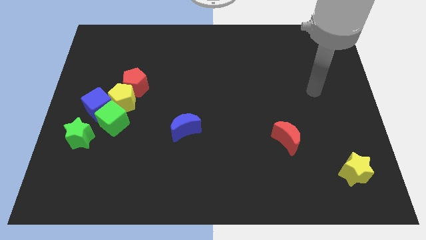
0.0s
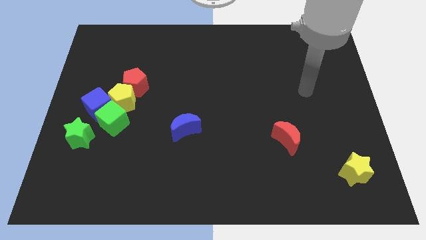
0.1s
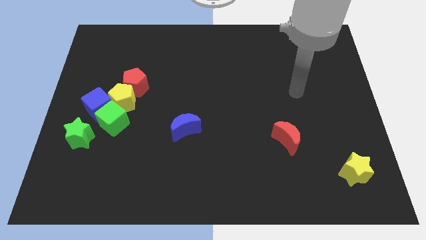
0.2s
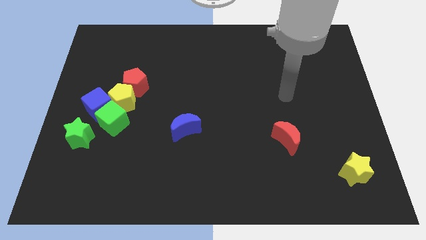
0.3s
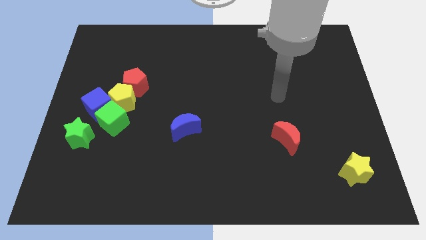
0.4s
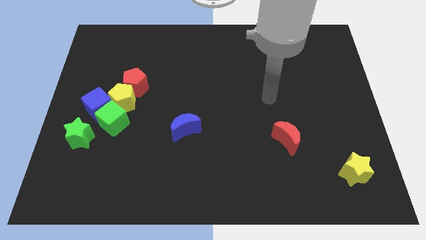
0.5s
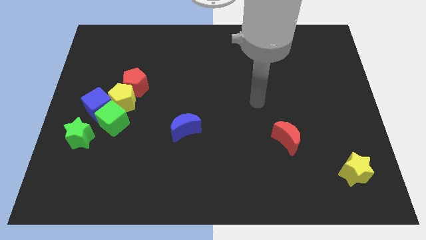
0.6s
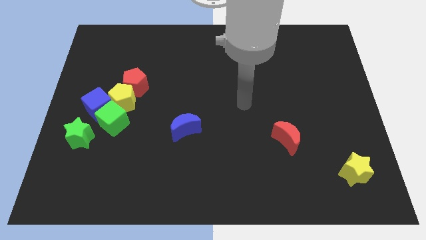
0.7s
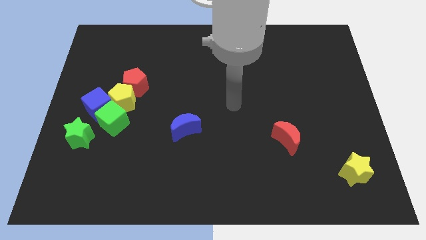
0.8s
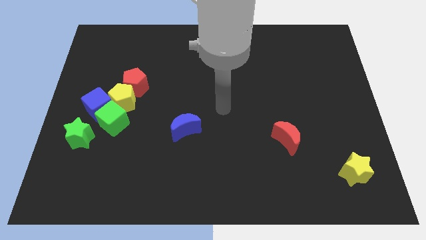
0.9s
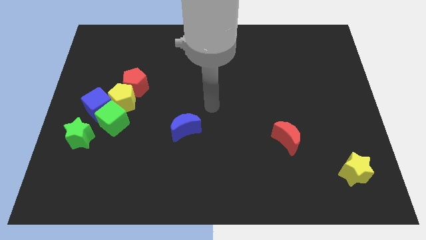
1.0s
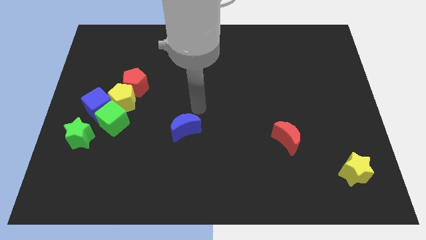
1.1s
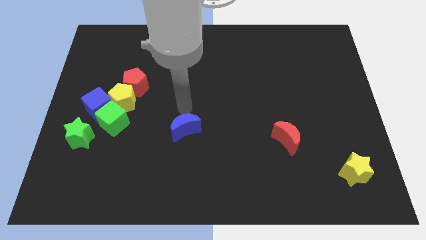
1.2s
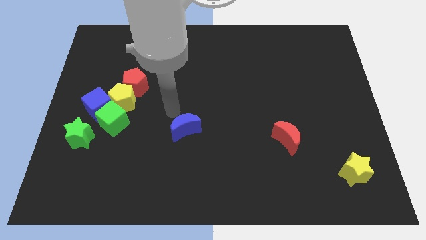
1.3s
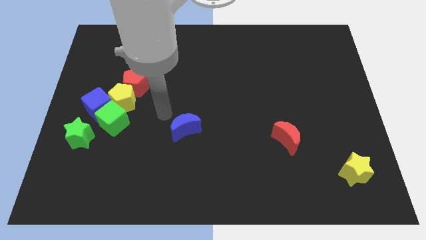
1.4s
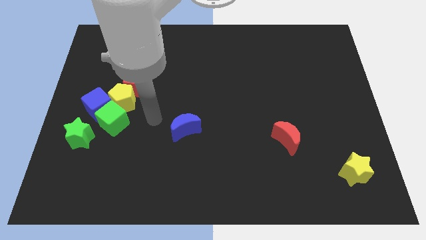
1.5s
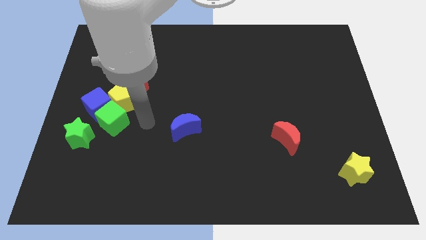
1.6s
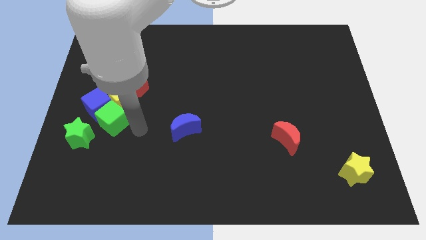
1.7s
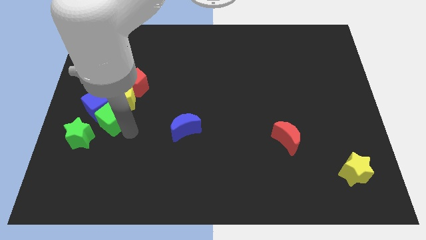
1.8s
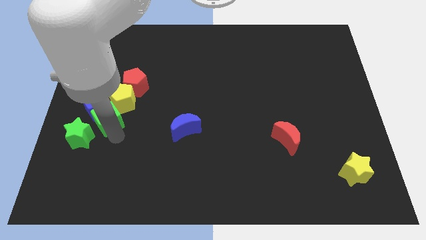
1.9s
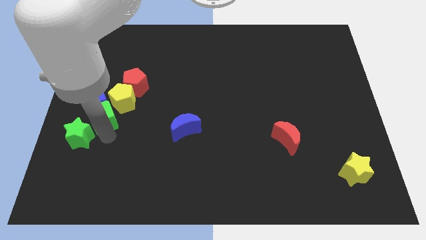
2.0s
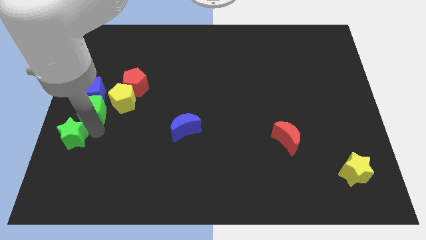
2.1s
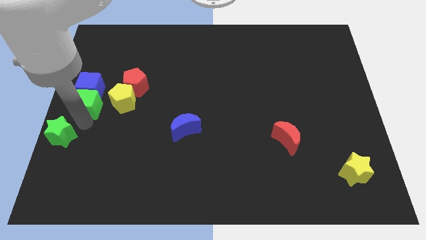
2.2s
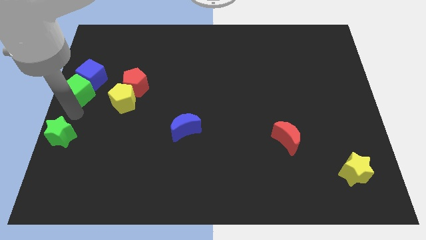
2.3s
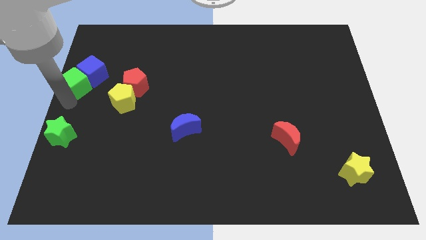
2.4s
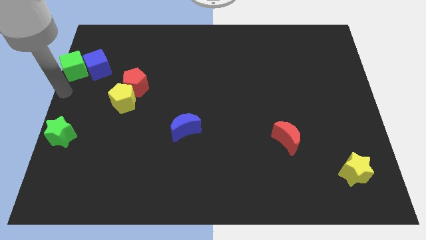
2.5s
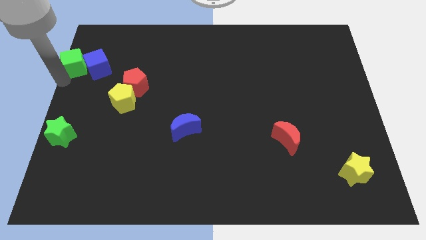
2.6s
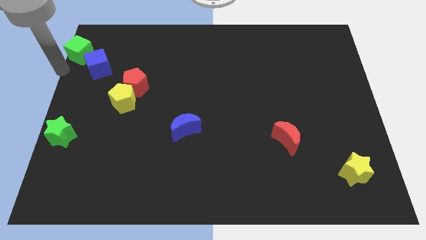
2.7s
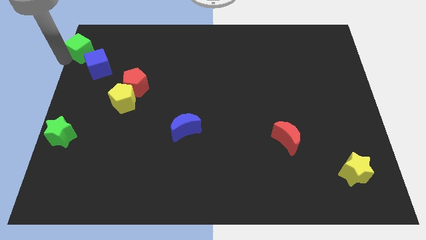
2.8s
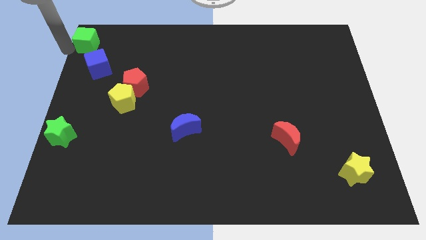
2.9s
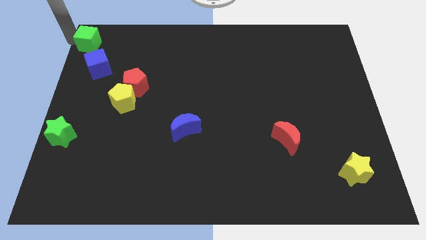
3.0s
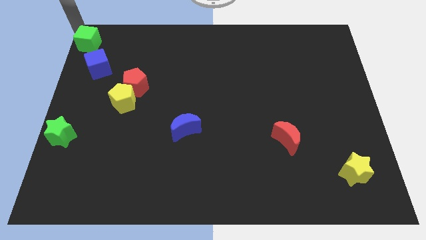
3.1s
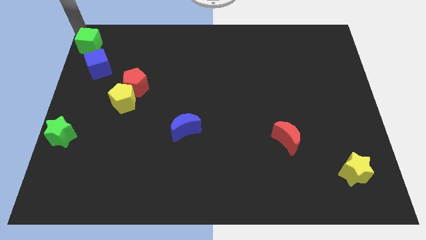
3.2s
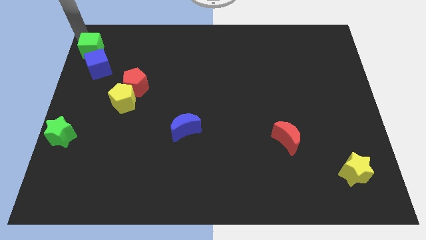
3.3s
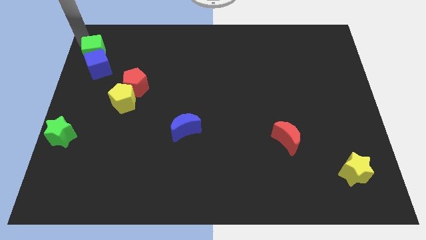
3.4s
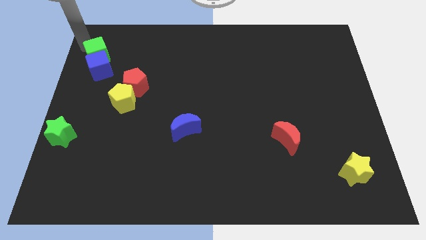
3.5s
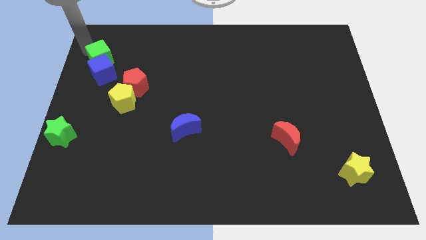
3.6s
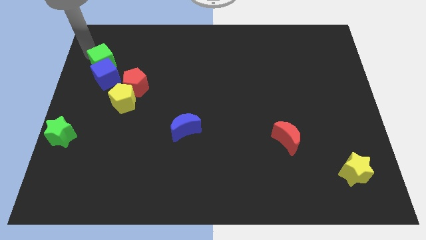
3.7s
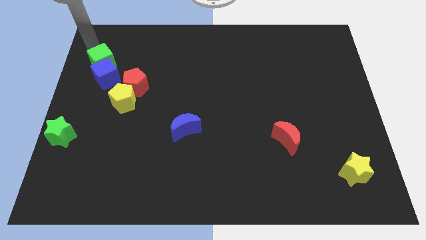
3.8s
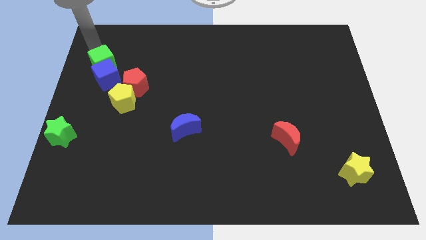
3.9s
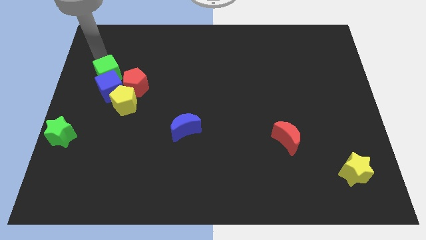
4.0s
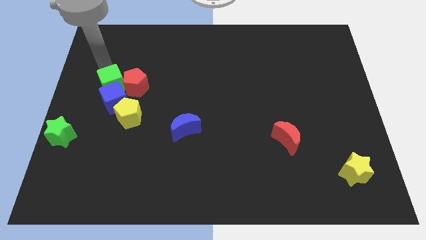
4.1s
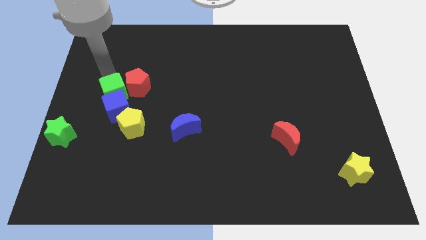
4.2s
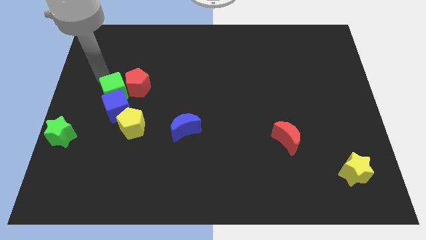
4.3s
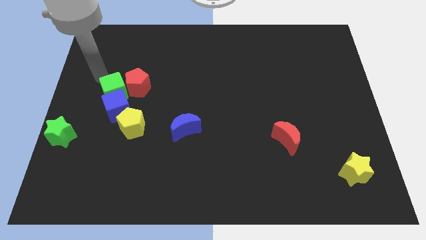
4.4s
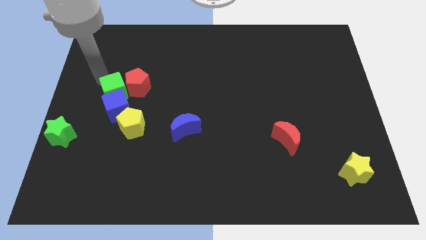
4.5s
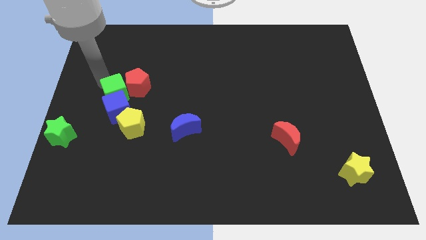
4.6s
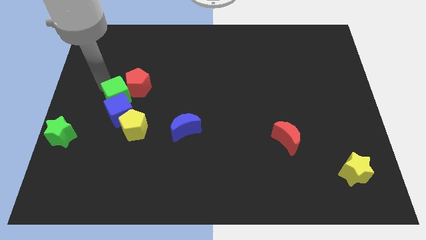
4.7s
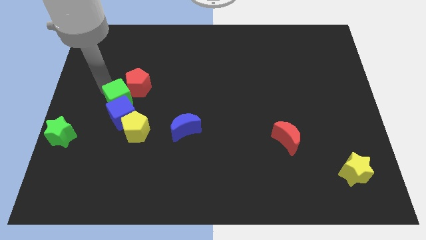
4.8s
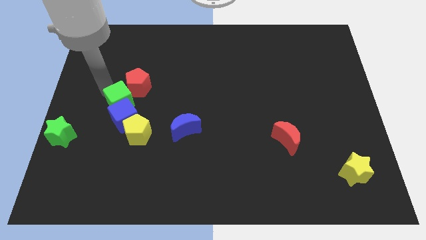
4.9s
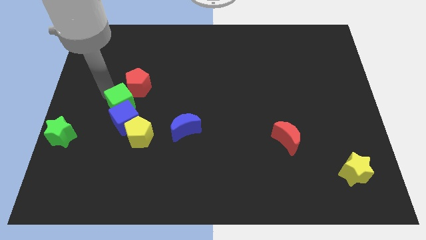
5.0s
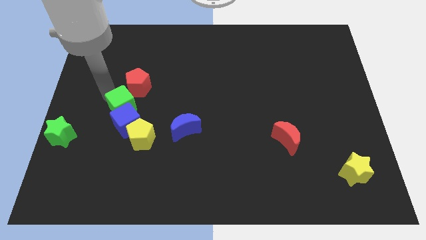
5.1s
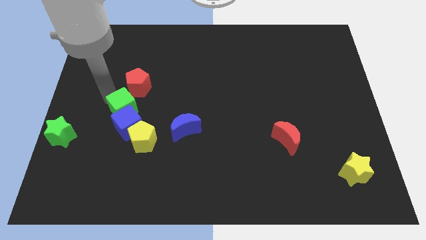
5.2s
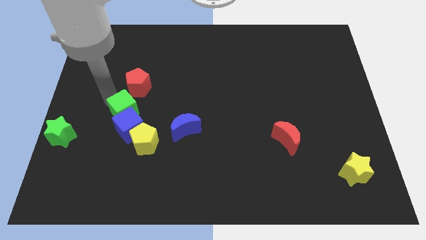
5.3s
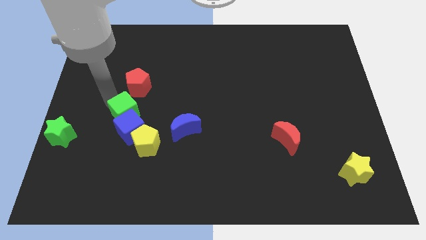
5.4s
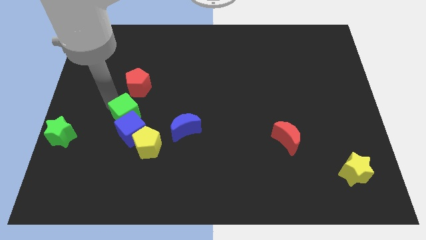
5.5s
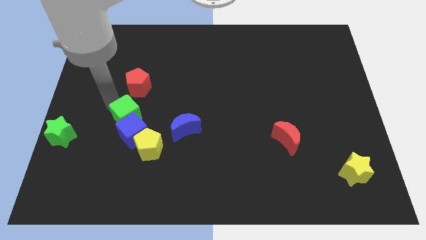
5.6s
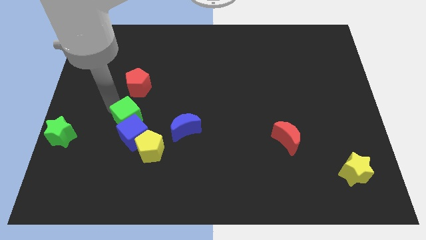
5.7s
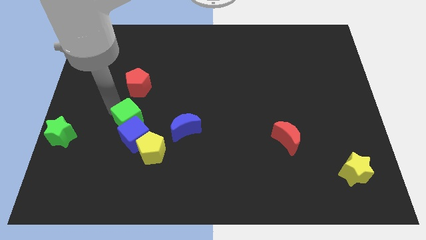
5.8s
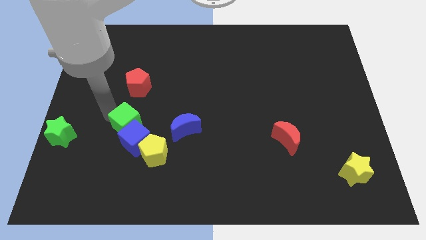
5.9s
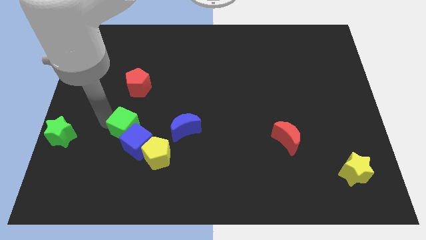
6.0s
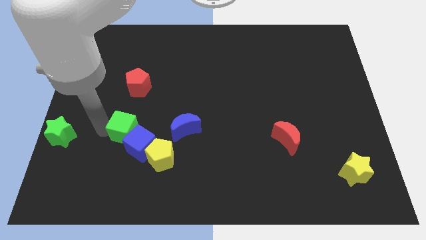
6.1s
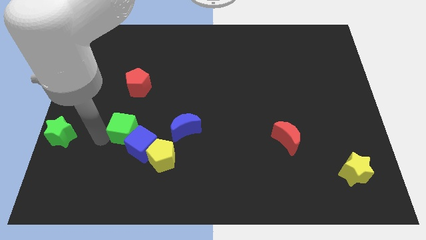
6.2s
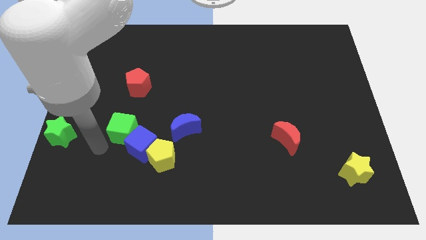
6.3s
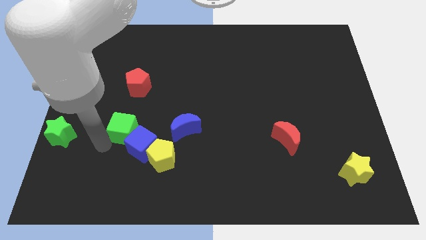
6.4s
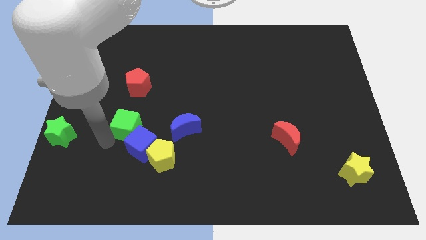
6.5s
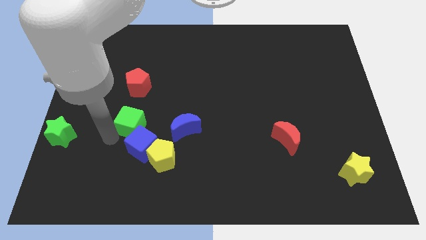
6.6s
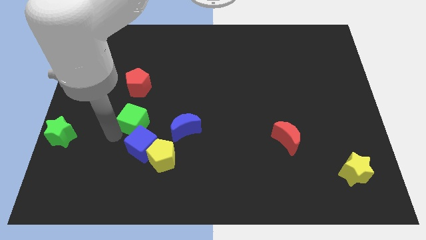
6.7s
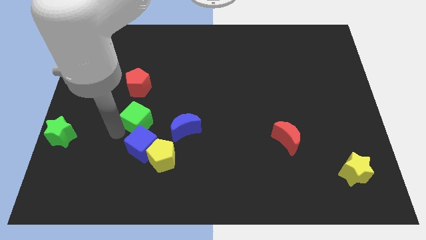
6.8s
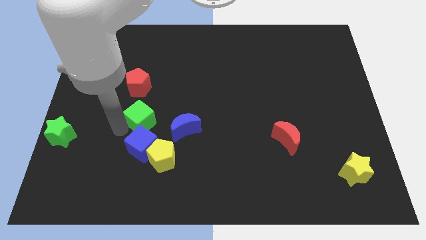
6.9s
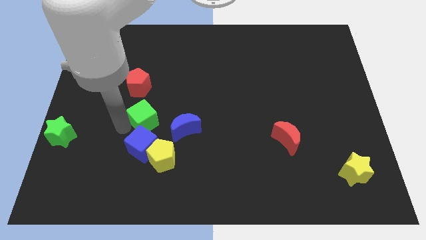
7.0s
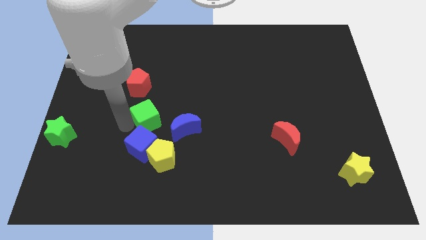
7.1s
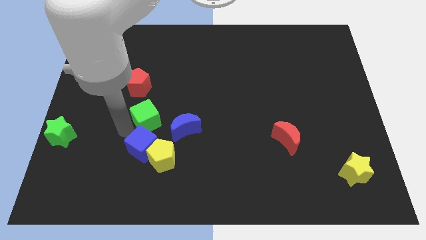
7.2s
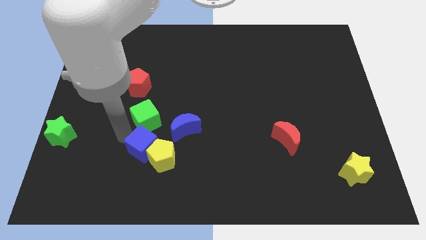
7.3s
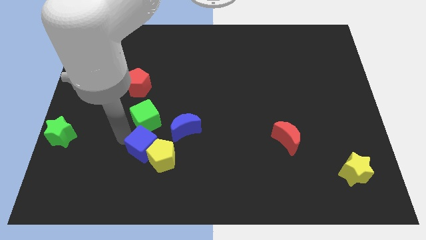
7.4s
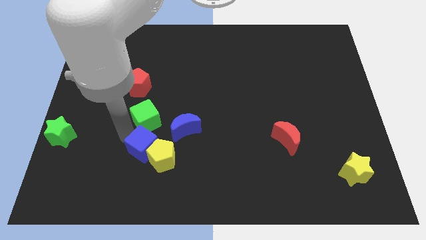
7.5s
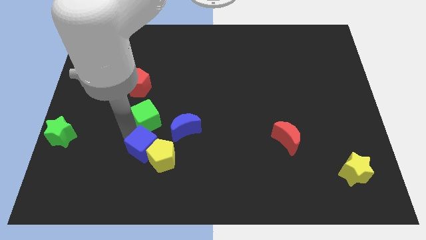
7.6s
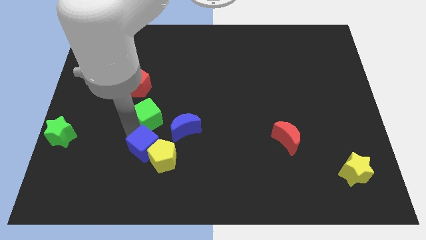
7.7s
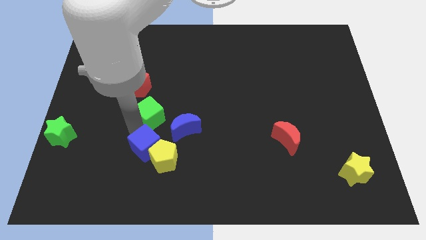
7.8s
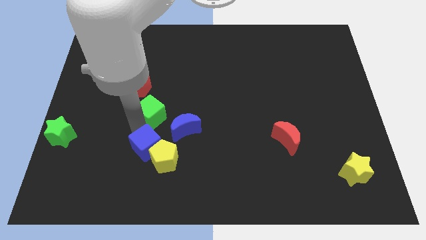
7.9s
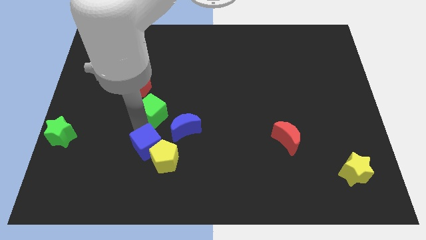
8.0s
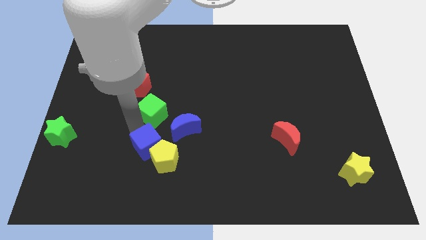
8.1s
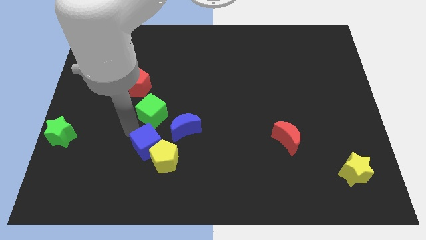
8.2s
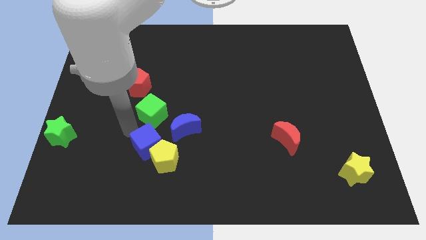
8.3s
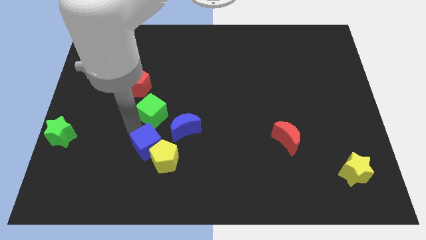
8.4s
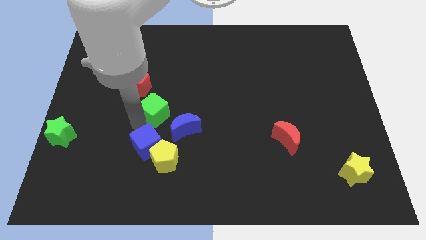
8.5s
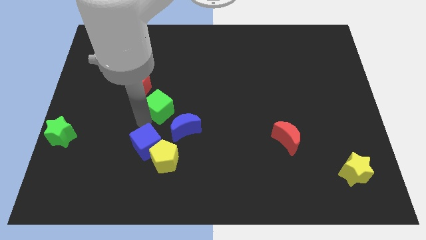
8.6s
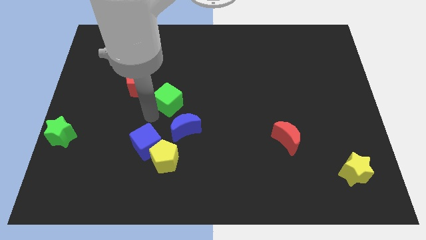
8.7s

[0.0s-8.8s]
put the green cube to the top of the blue moon
